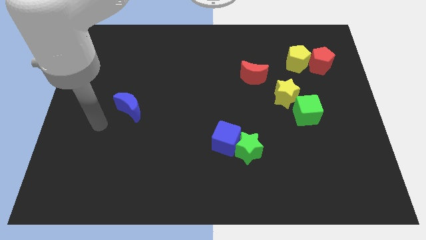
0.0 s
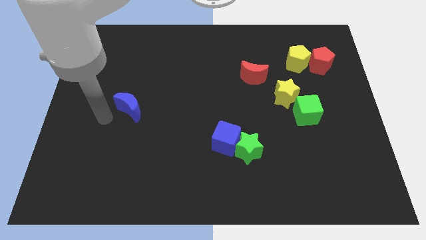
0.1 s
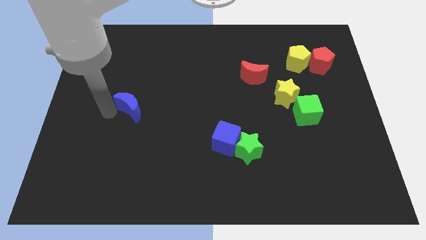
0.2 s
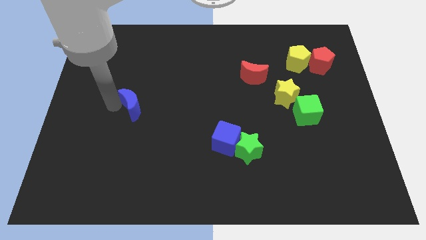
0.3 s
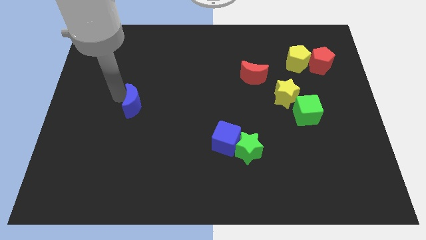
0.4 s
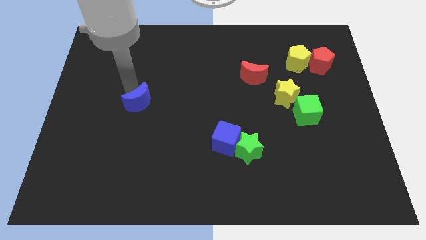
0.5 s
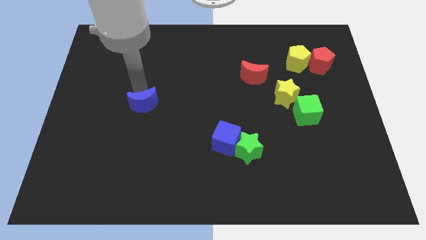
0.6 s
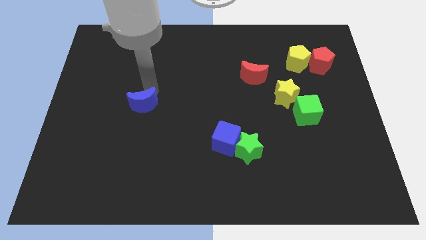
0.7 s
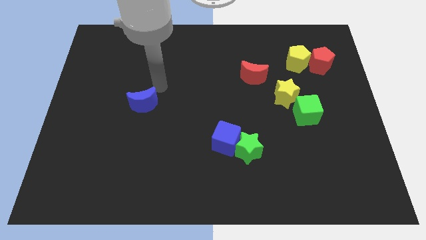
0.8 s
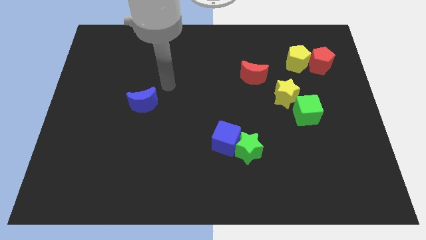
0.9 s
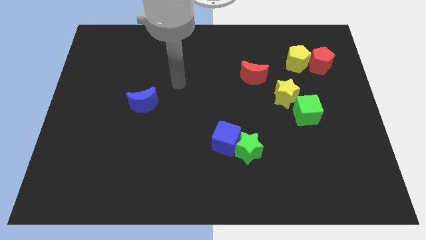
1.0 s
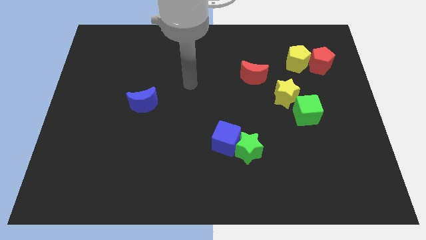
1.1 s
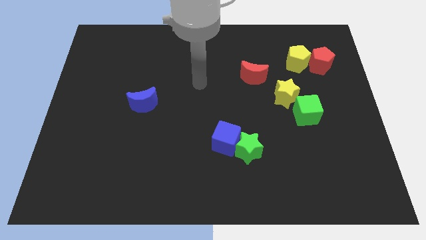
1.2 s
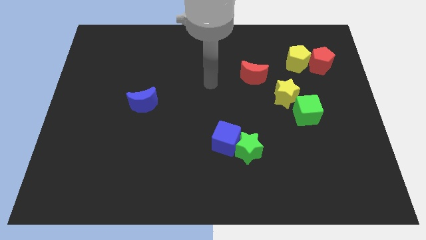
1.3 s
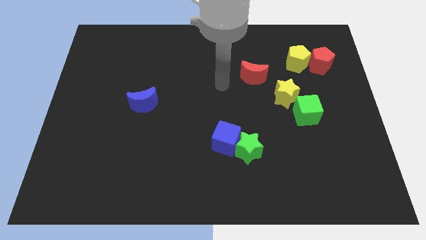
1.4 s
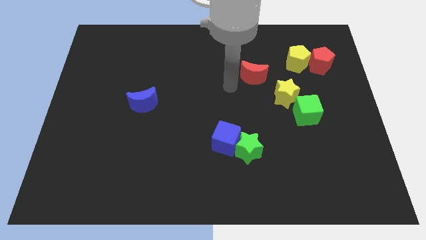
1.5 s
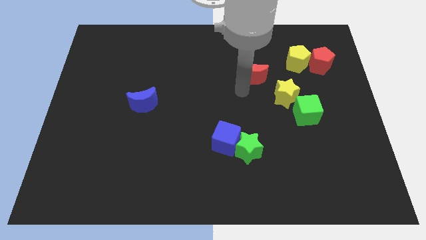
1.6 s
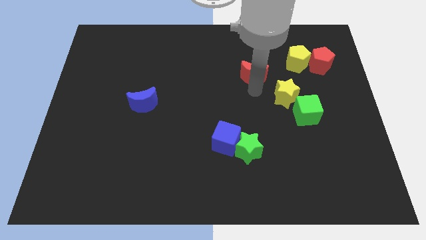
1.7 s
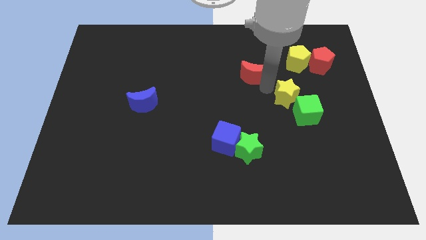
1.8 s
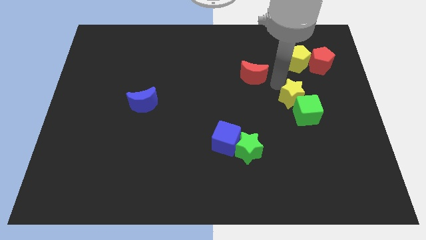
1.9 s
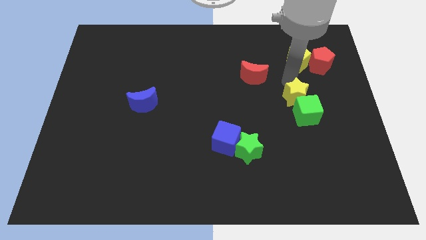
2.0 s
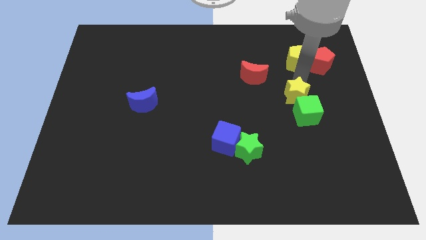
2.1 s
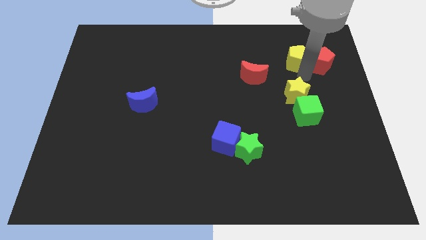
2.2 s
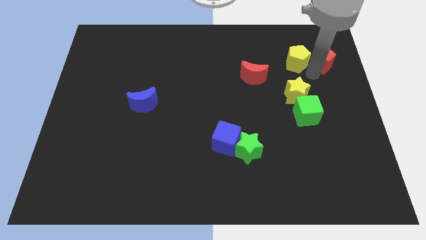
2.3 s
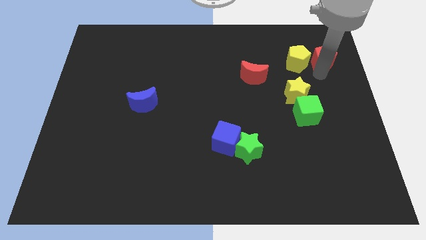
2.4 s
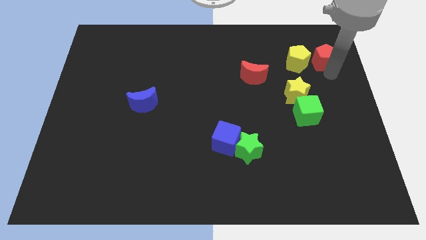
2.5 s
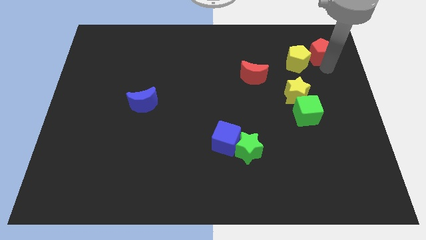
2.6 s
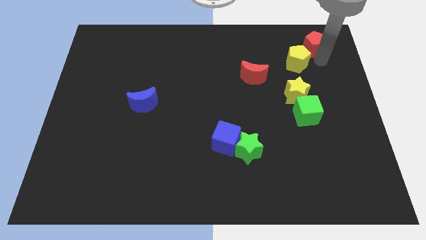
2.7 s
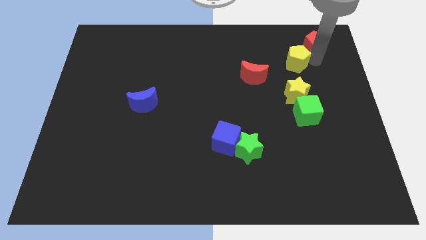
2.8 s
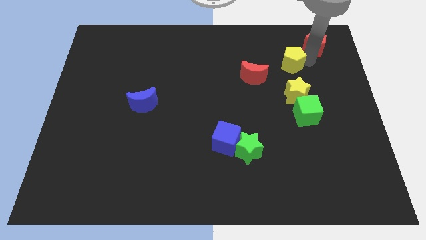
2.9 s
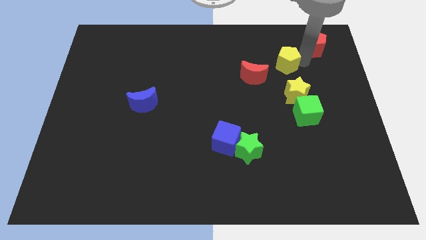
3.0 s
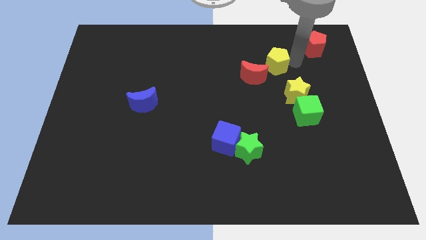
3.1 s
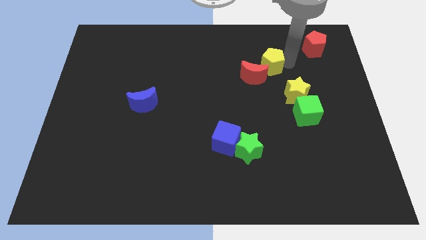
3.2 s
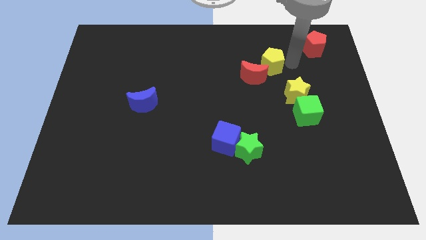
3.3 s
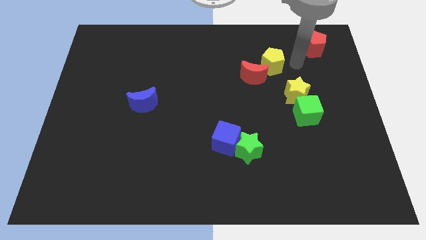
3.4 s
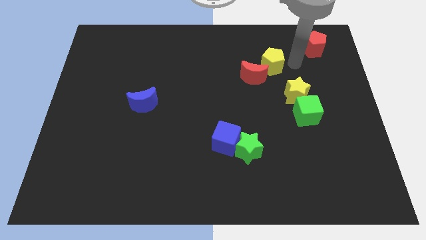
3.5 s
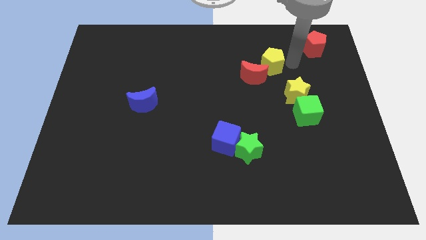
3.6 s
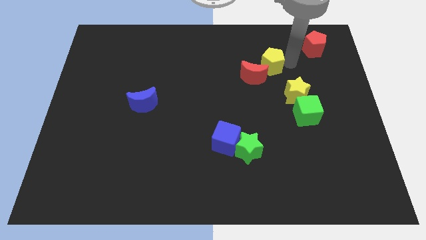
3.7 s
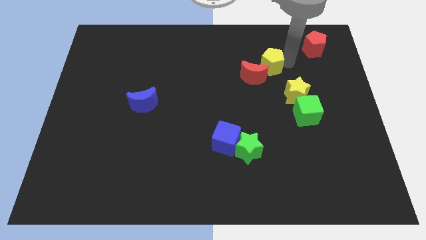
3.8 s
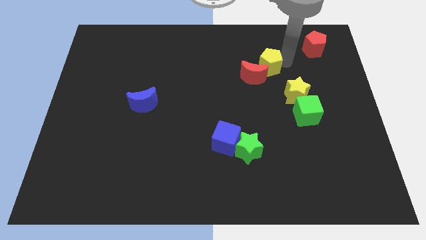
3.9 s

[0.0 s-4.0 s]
slightly move the yellow pentagon to the left

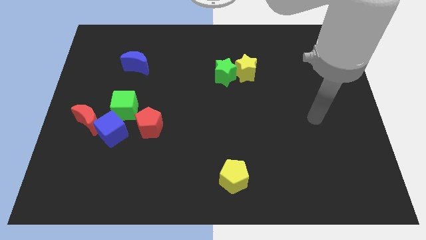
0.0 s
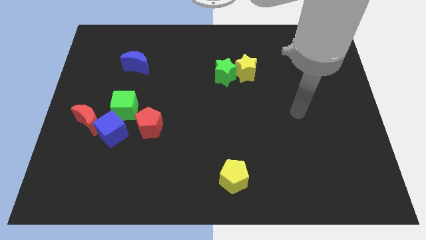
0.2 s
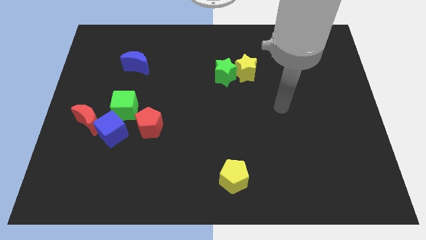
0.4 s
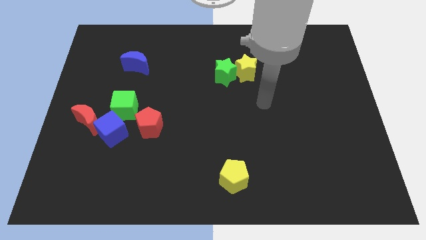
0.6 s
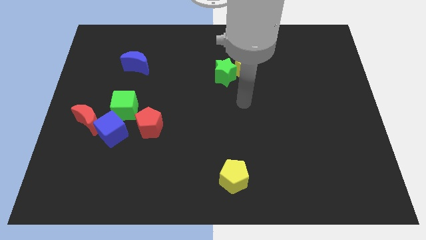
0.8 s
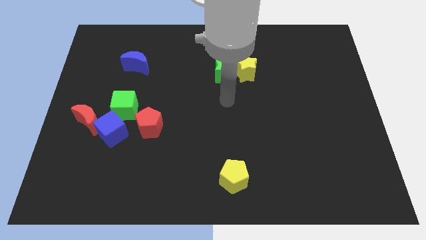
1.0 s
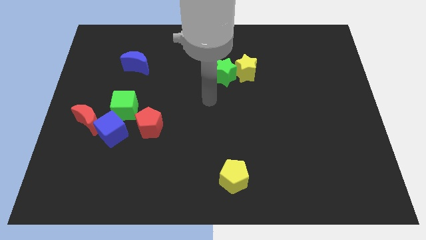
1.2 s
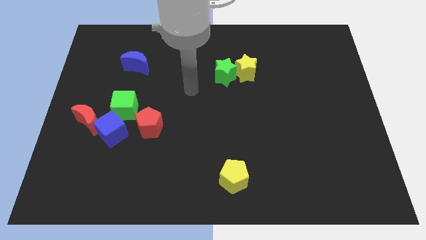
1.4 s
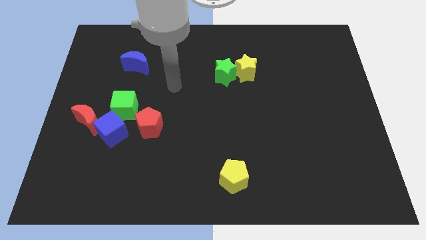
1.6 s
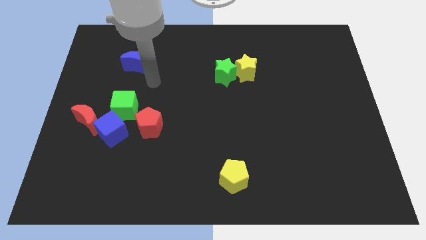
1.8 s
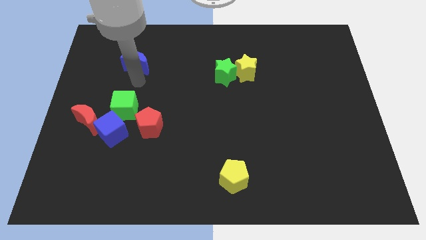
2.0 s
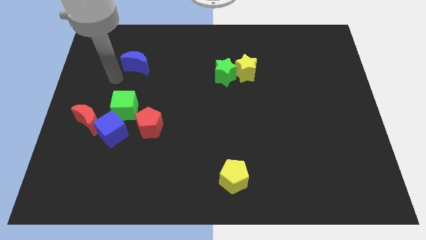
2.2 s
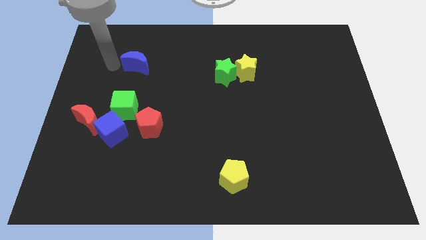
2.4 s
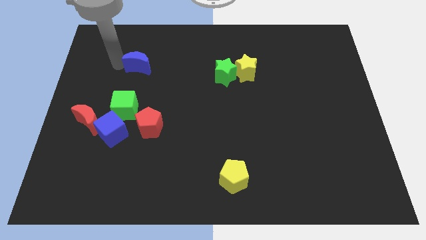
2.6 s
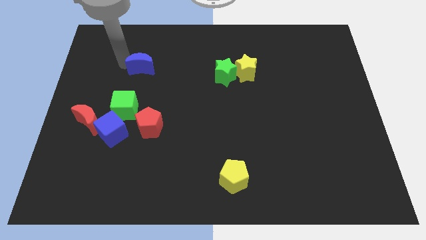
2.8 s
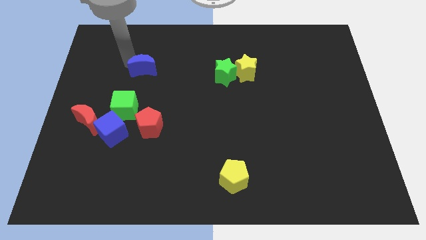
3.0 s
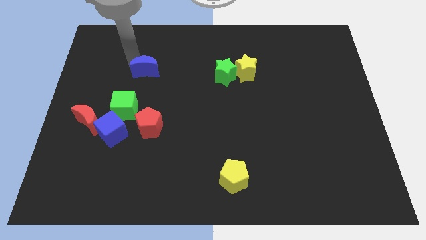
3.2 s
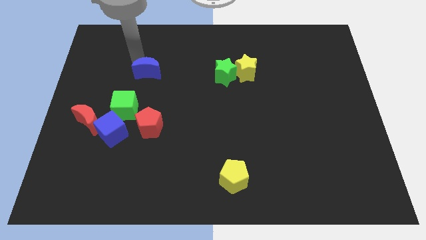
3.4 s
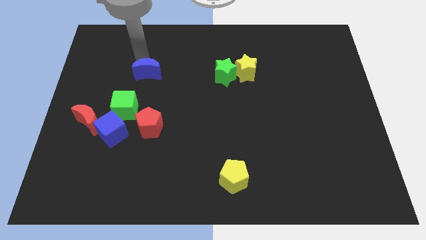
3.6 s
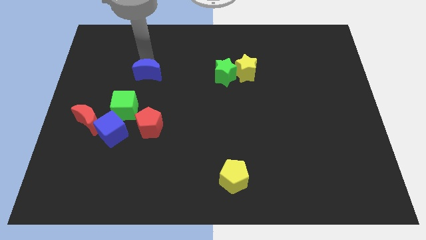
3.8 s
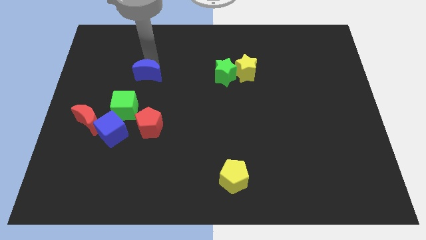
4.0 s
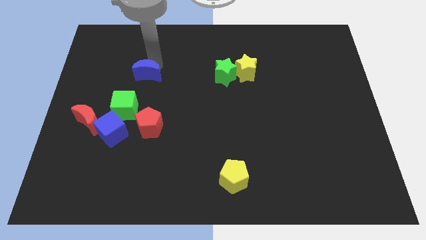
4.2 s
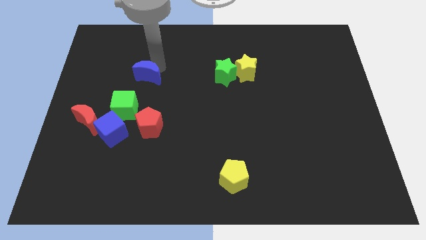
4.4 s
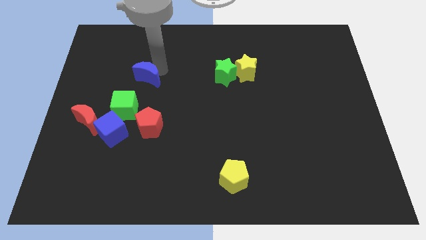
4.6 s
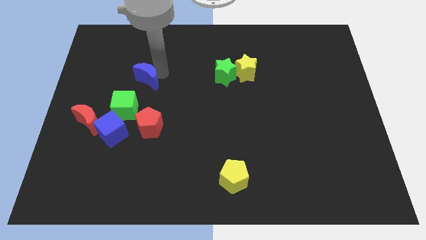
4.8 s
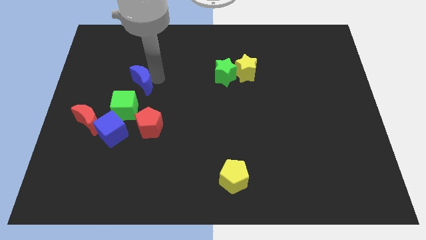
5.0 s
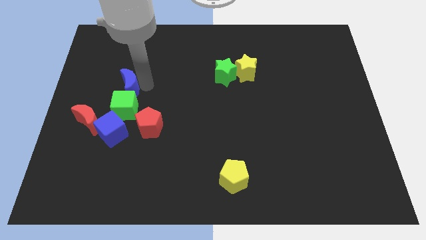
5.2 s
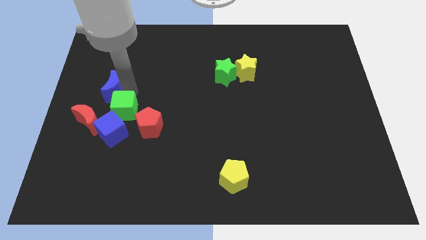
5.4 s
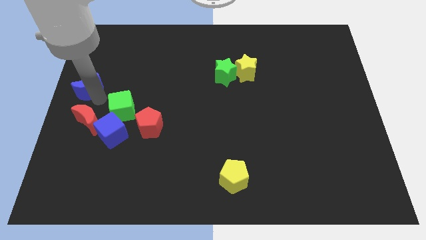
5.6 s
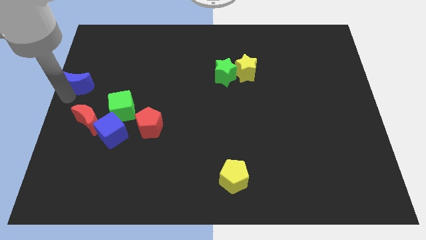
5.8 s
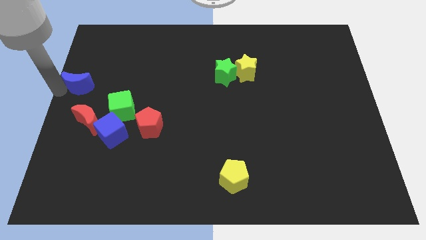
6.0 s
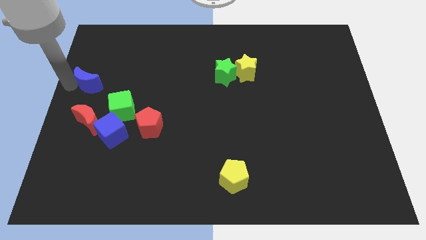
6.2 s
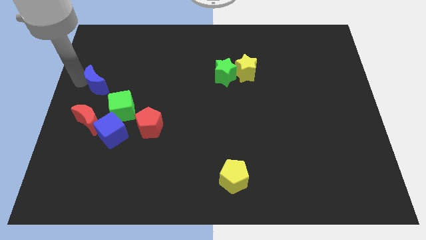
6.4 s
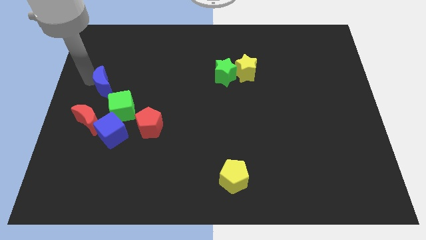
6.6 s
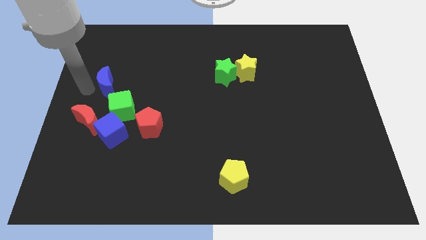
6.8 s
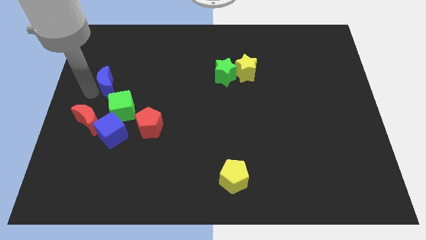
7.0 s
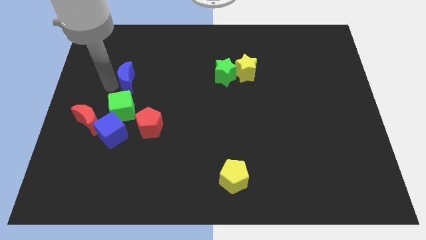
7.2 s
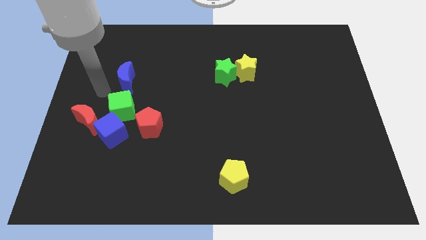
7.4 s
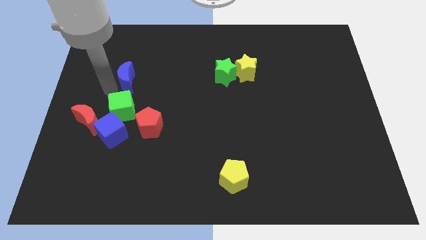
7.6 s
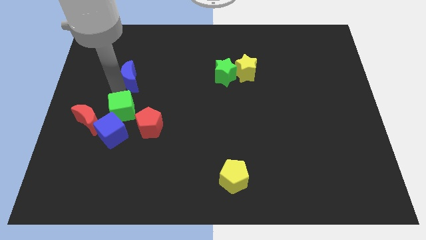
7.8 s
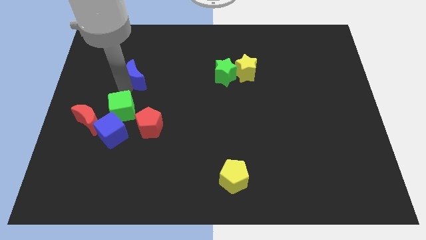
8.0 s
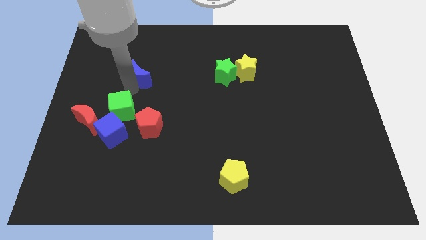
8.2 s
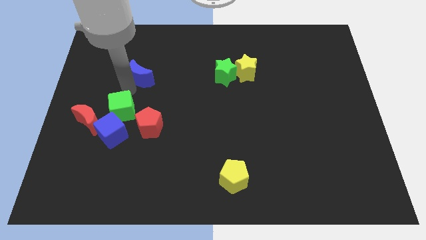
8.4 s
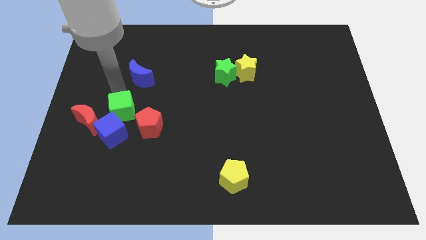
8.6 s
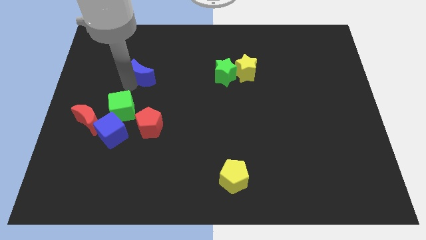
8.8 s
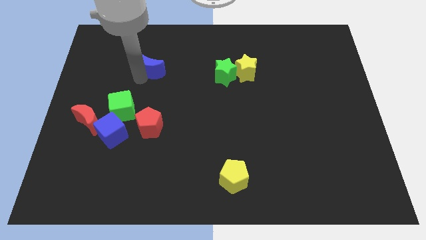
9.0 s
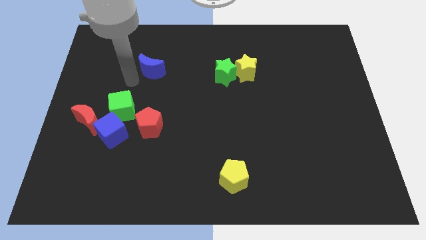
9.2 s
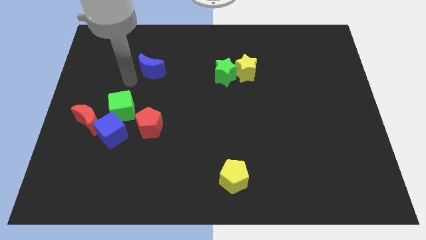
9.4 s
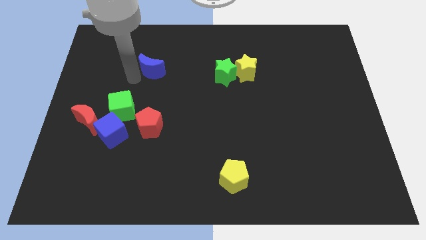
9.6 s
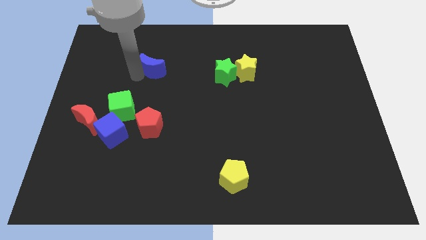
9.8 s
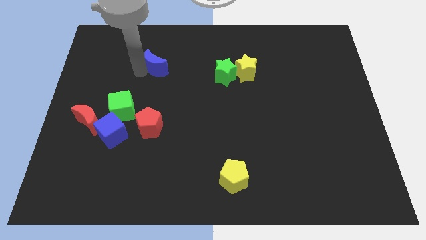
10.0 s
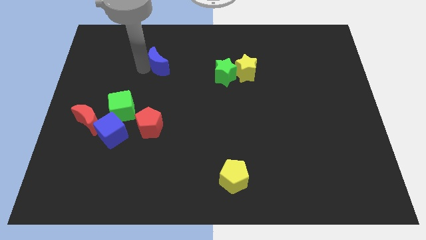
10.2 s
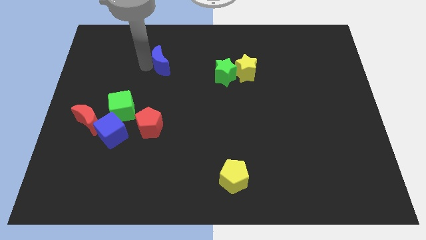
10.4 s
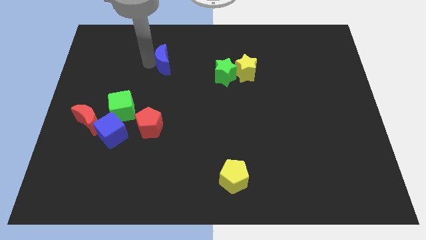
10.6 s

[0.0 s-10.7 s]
push the blue moon to the right a little bit
